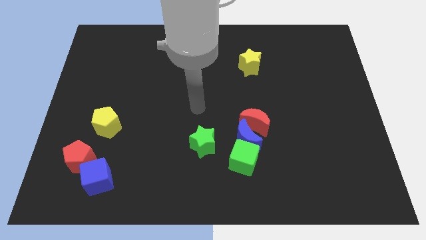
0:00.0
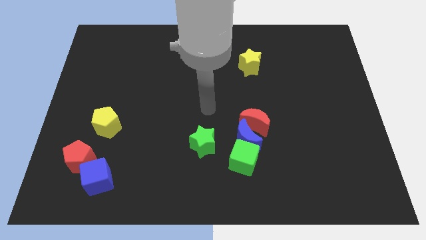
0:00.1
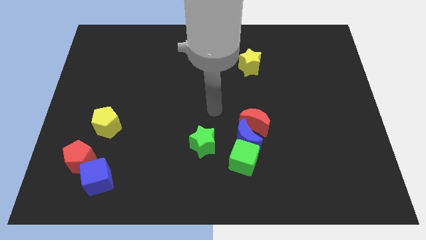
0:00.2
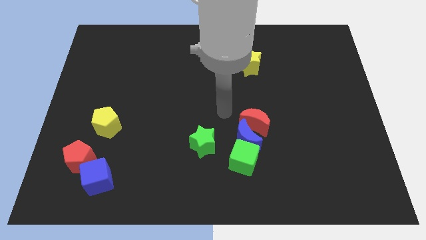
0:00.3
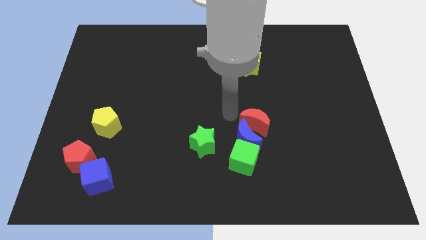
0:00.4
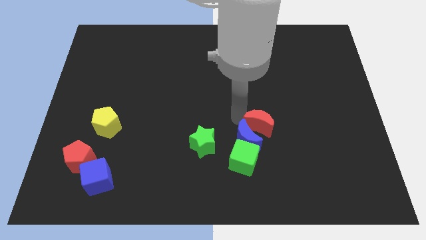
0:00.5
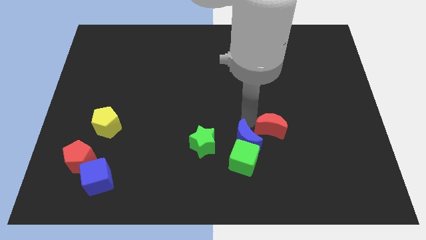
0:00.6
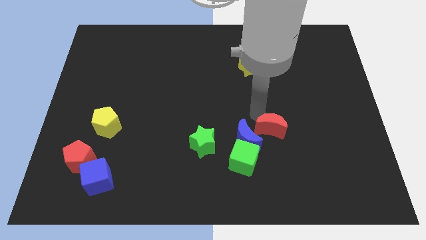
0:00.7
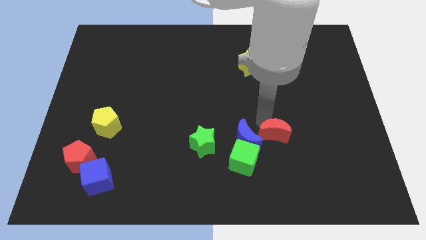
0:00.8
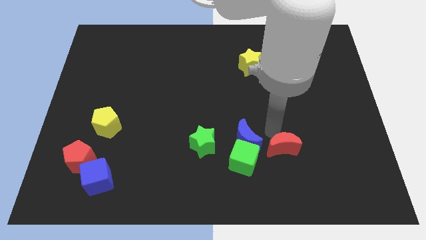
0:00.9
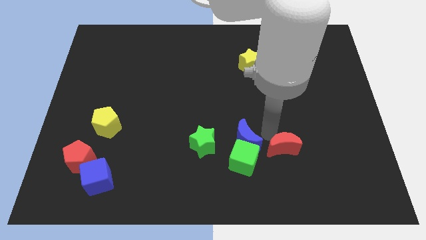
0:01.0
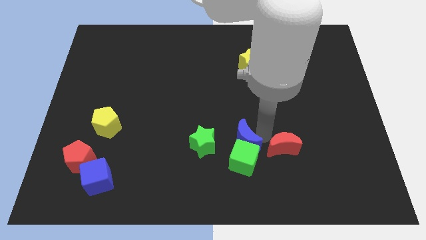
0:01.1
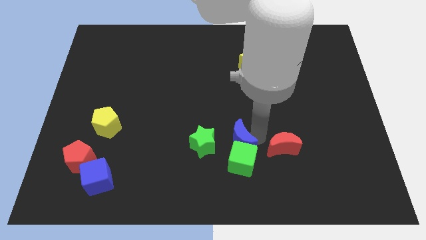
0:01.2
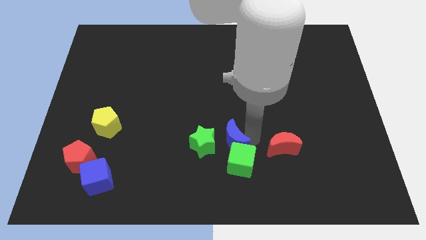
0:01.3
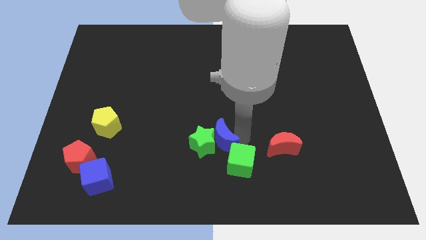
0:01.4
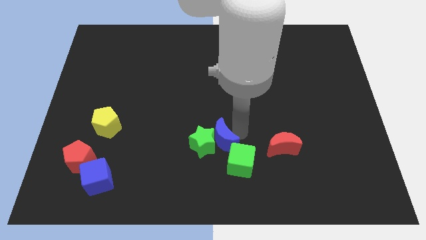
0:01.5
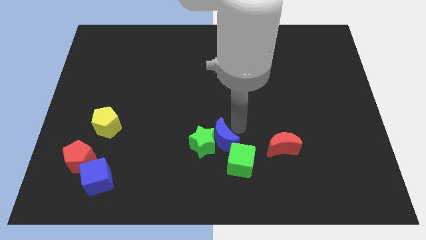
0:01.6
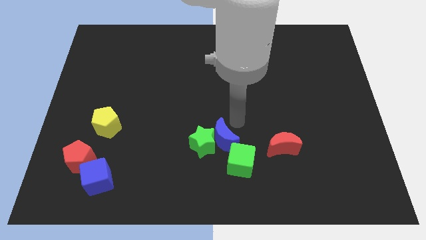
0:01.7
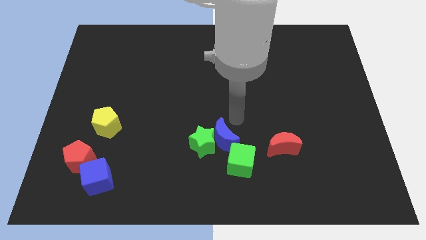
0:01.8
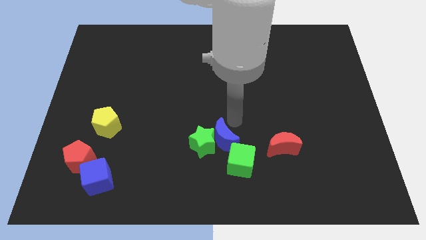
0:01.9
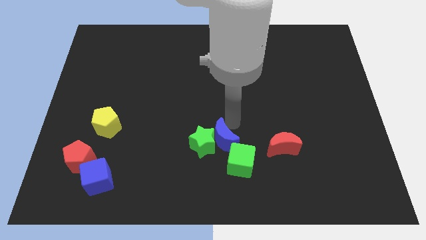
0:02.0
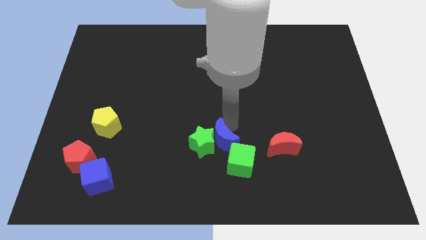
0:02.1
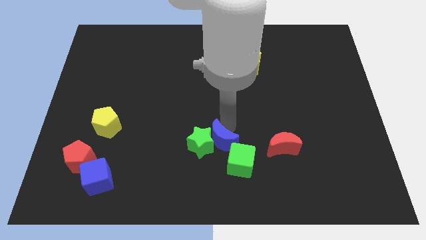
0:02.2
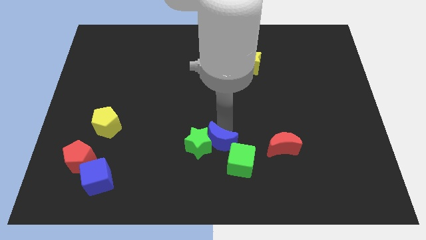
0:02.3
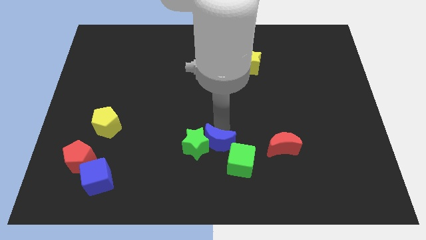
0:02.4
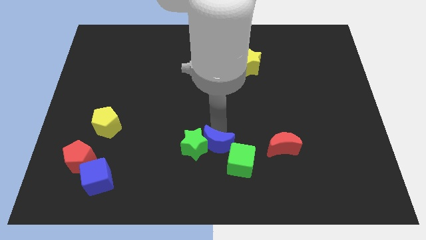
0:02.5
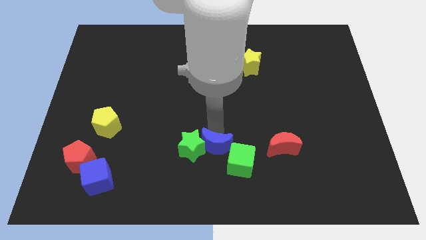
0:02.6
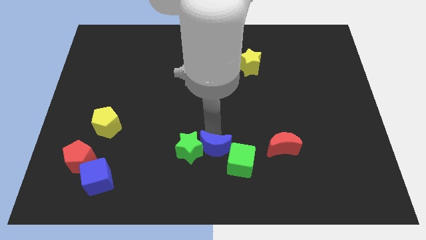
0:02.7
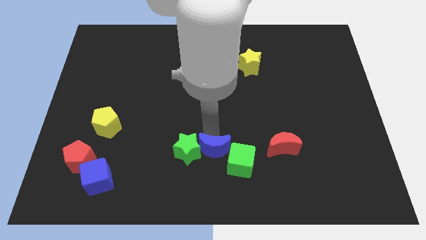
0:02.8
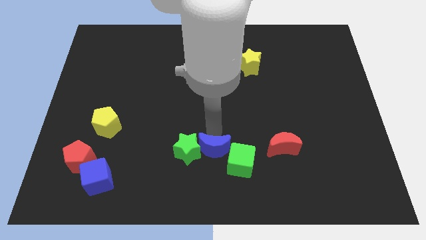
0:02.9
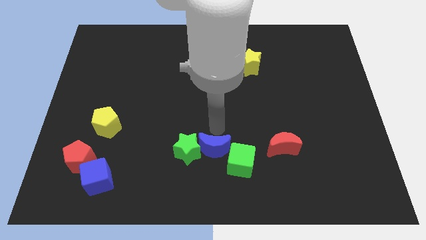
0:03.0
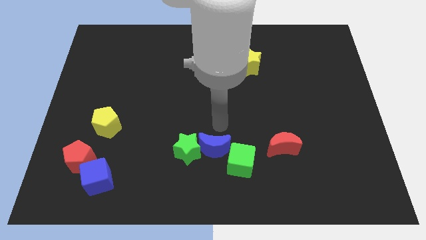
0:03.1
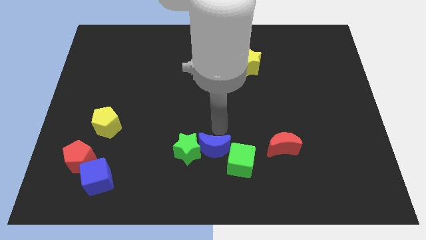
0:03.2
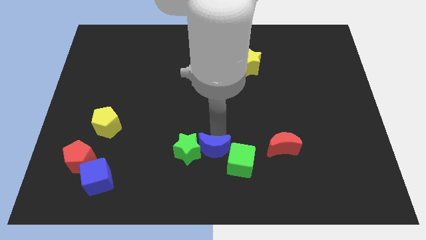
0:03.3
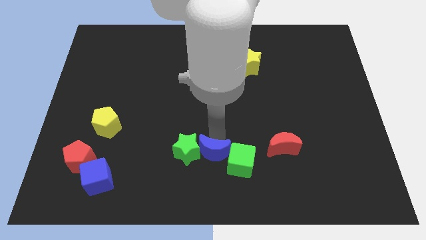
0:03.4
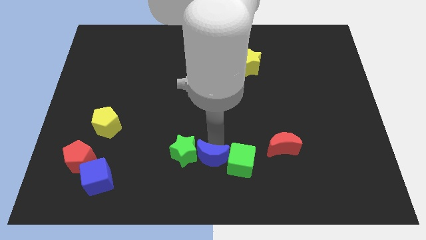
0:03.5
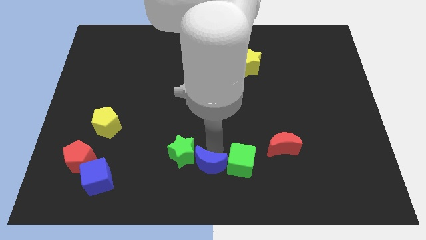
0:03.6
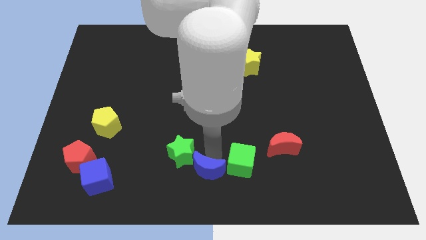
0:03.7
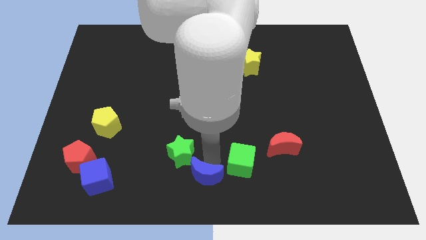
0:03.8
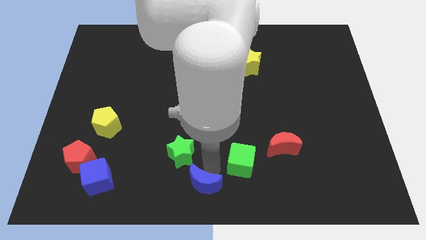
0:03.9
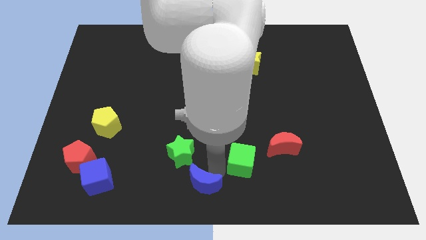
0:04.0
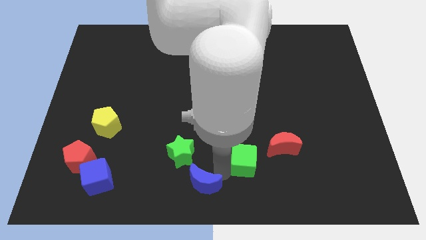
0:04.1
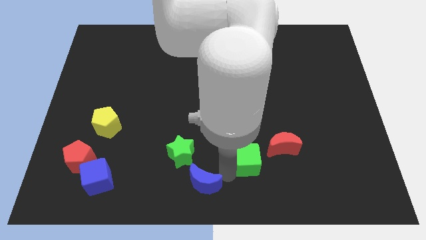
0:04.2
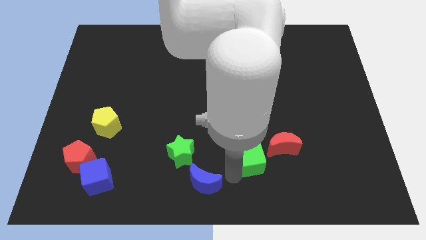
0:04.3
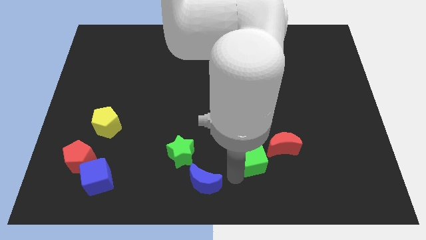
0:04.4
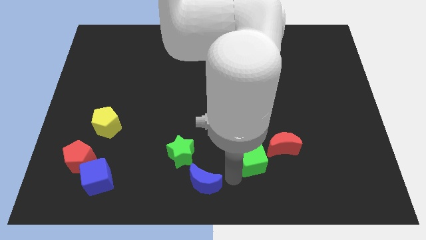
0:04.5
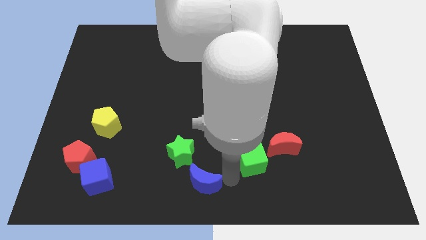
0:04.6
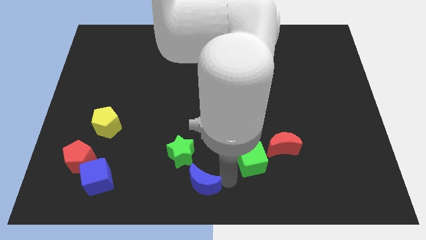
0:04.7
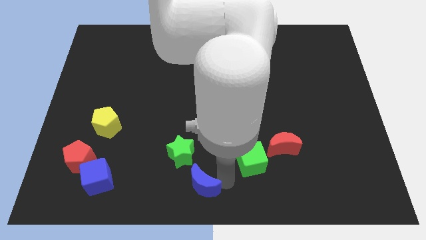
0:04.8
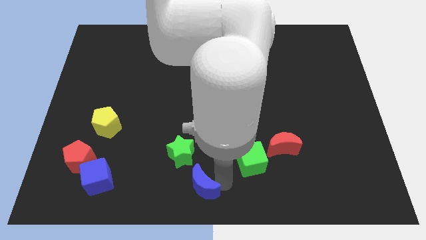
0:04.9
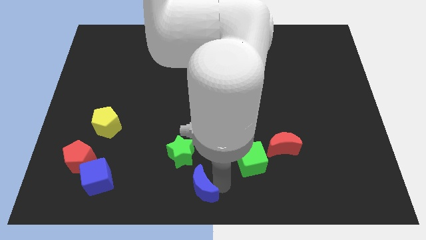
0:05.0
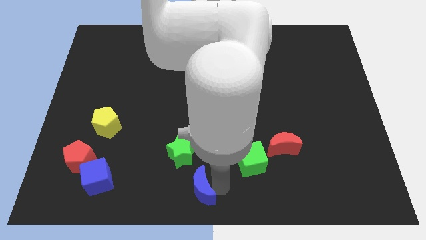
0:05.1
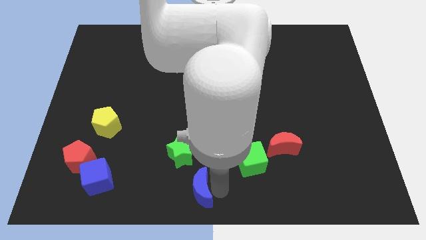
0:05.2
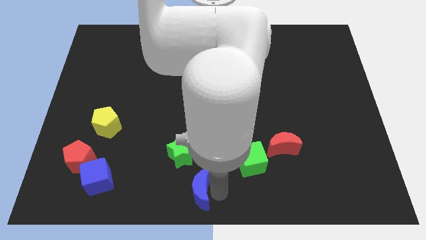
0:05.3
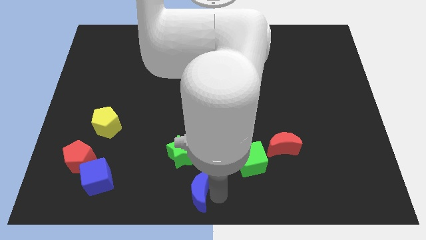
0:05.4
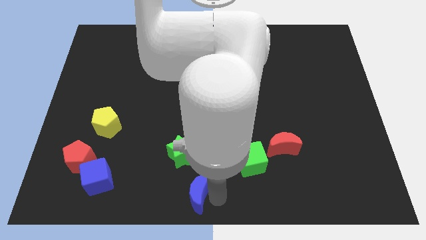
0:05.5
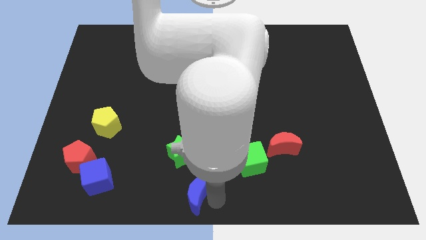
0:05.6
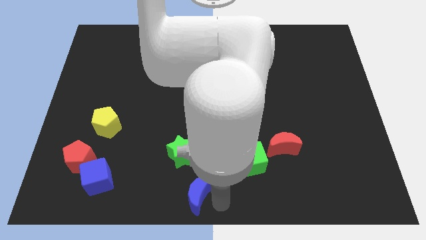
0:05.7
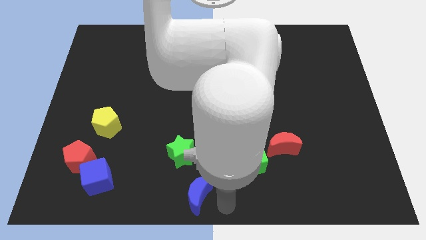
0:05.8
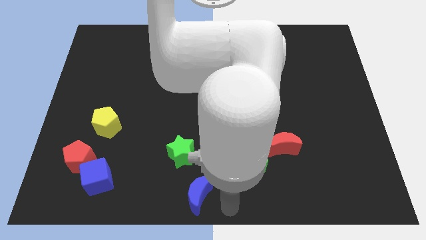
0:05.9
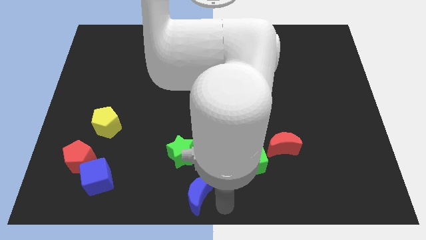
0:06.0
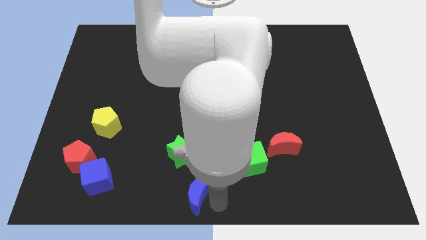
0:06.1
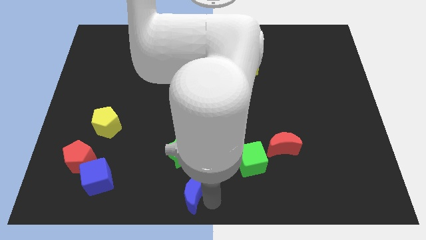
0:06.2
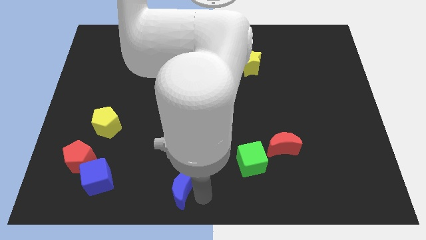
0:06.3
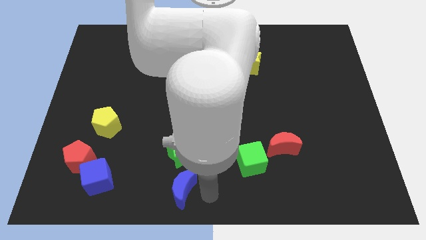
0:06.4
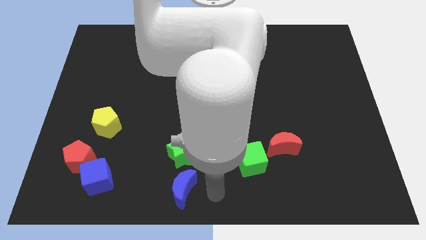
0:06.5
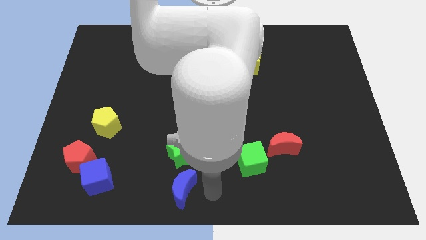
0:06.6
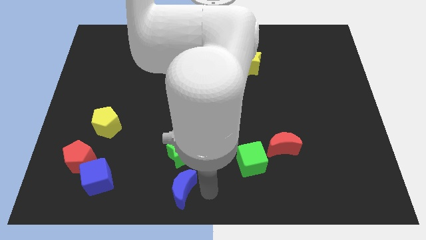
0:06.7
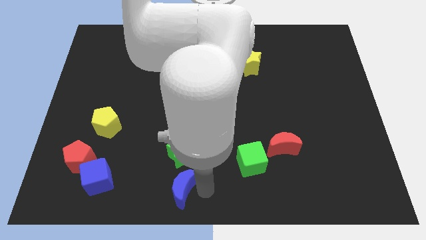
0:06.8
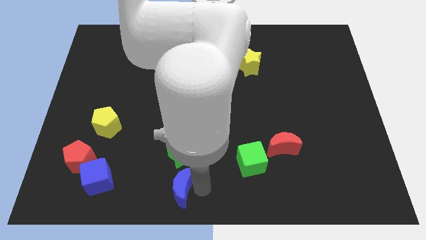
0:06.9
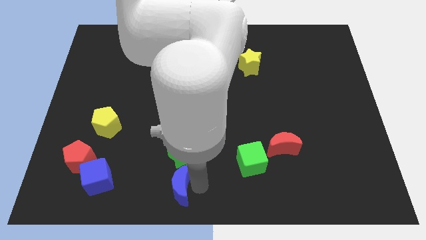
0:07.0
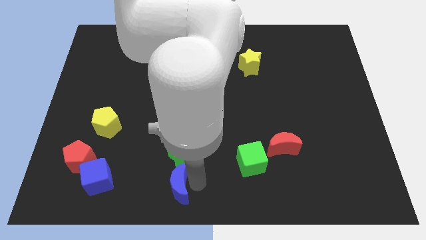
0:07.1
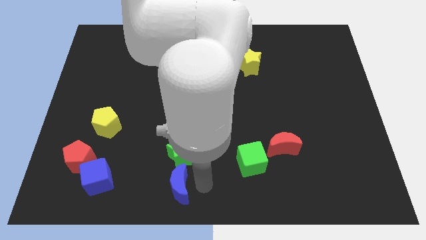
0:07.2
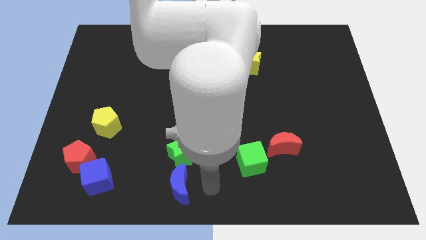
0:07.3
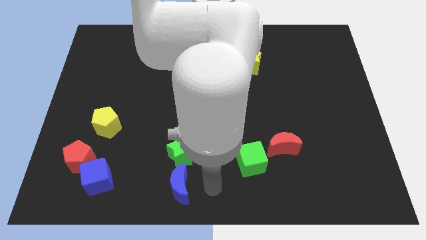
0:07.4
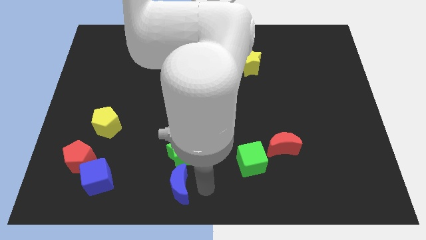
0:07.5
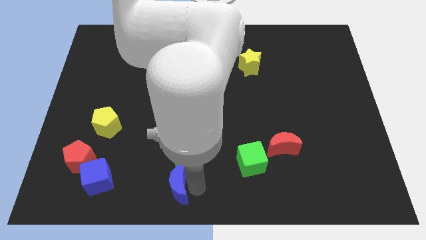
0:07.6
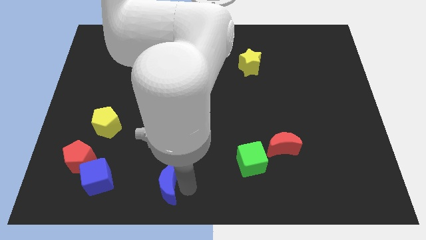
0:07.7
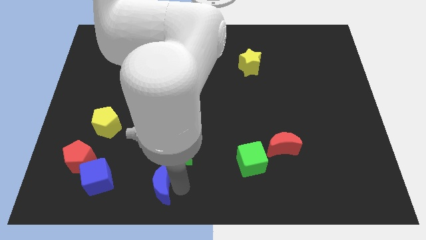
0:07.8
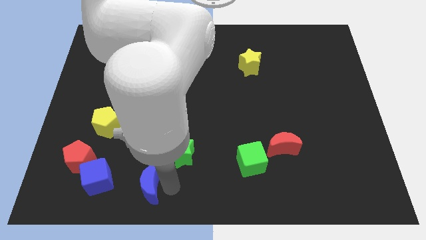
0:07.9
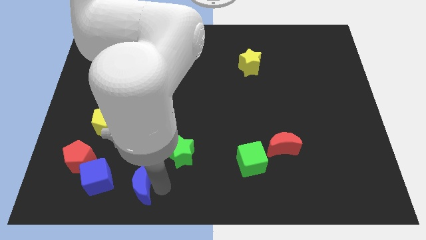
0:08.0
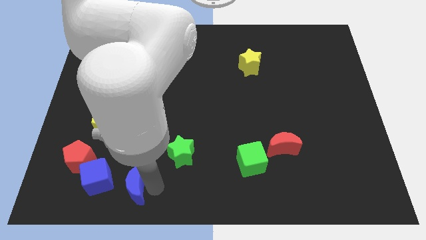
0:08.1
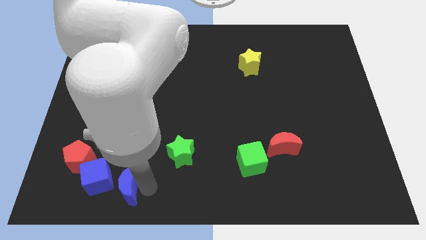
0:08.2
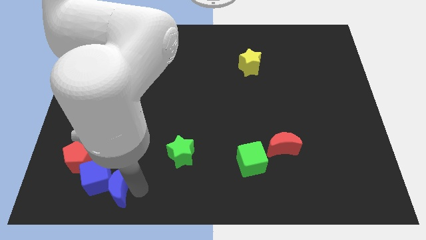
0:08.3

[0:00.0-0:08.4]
push the blue moon to the blue cube
